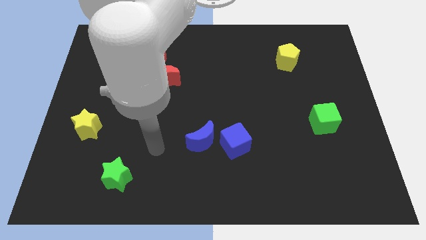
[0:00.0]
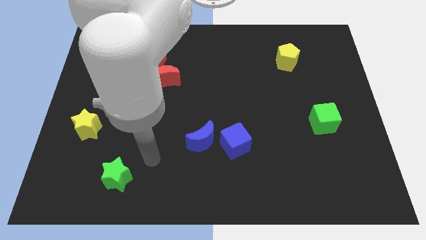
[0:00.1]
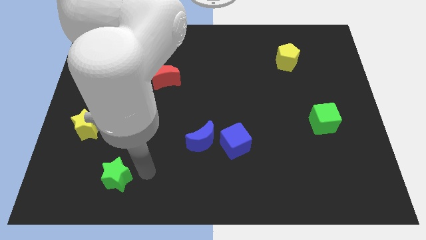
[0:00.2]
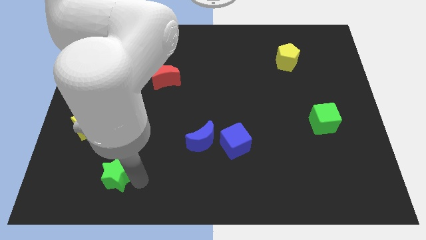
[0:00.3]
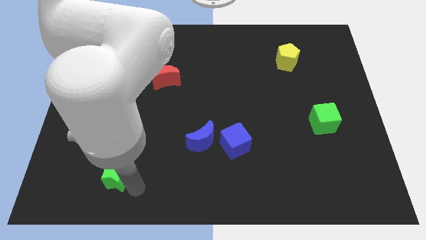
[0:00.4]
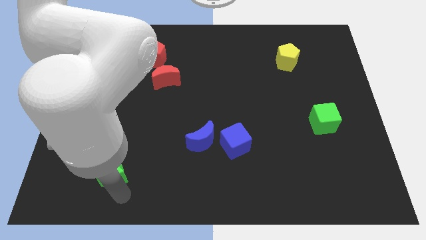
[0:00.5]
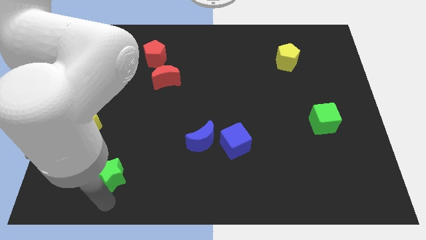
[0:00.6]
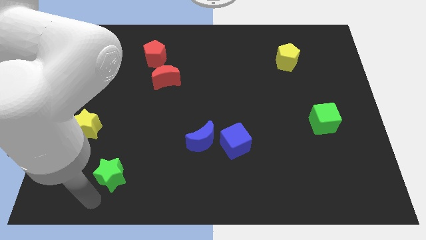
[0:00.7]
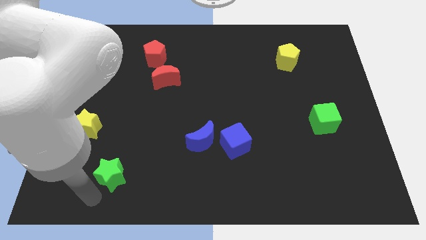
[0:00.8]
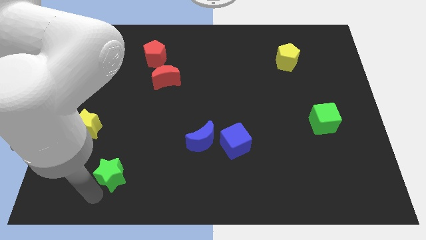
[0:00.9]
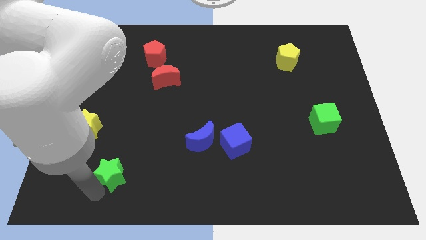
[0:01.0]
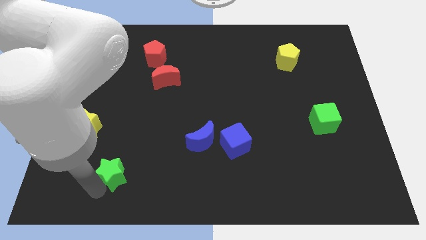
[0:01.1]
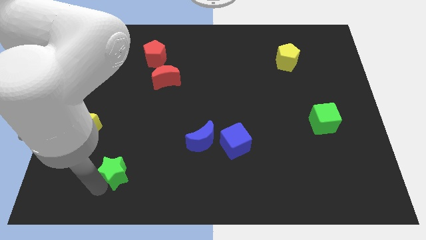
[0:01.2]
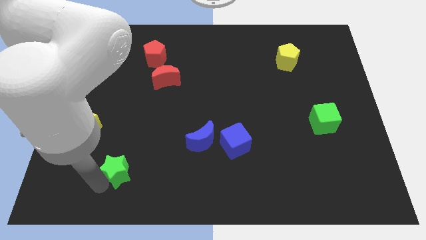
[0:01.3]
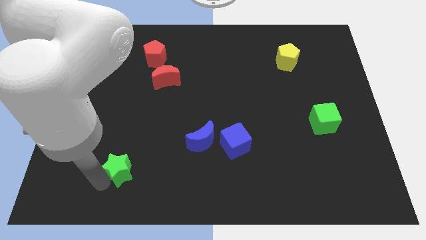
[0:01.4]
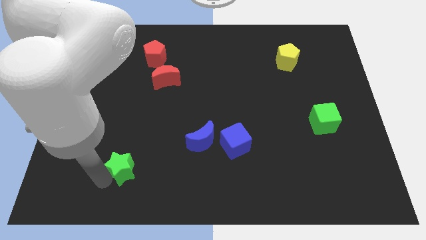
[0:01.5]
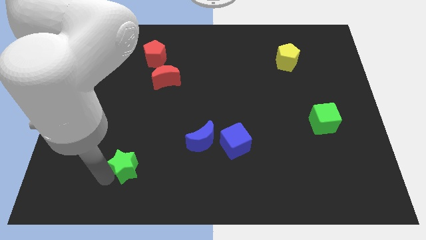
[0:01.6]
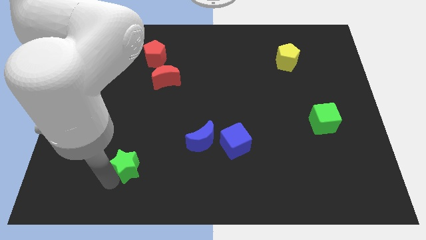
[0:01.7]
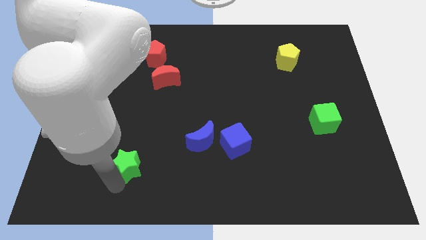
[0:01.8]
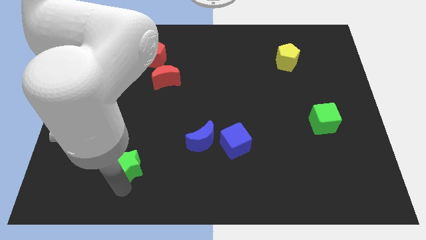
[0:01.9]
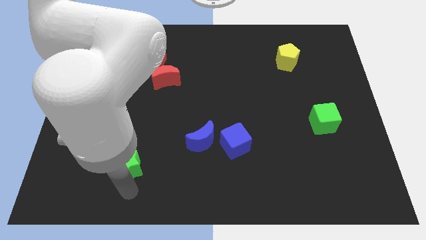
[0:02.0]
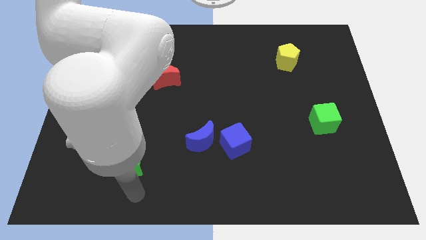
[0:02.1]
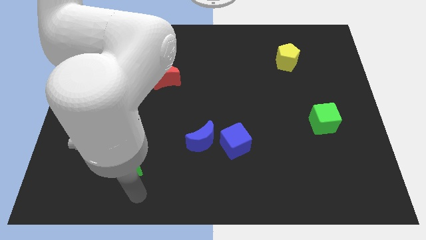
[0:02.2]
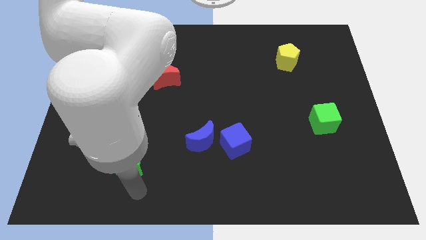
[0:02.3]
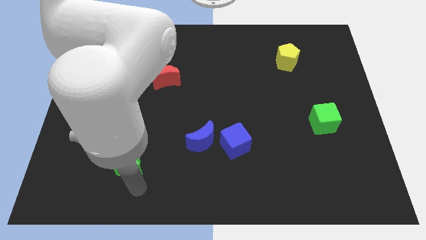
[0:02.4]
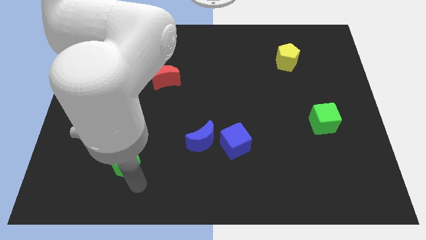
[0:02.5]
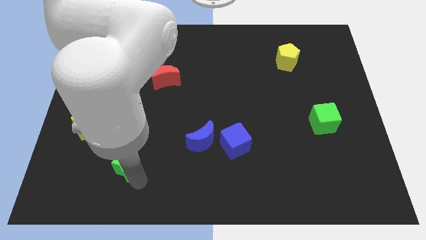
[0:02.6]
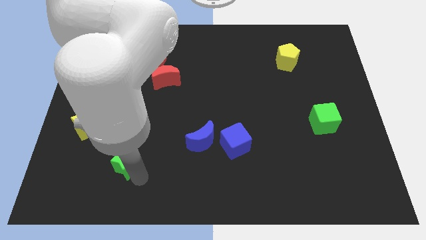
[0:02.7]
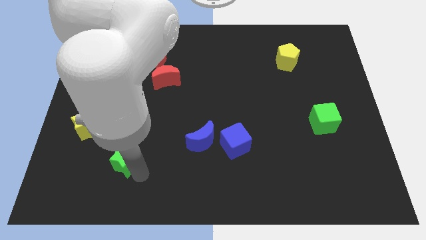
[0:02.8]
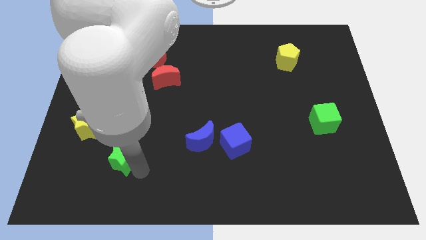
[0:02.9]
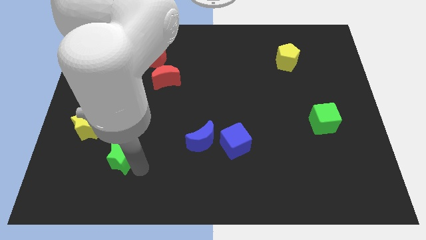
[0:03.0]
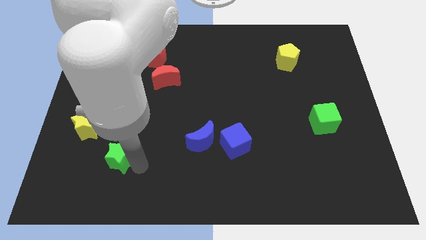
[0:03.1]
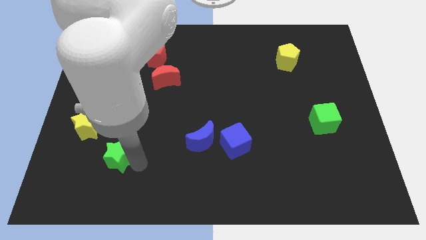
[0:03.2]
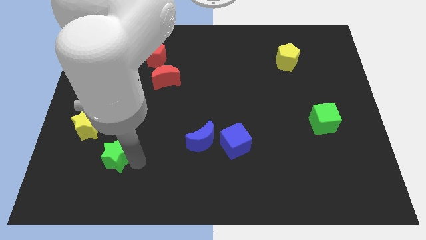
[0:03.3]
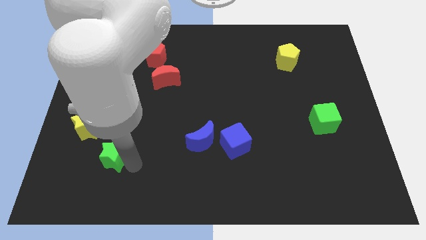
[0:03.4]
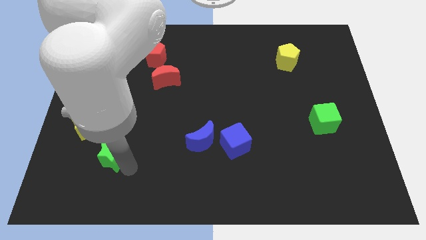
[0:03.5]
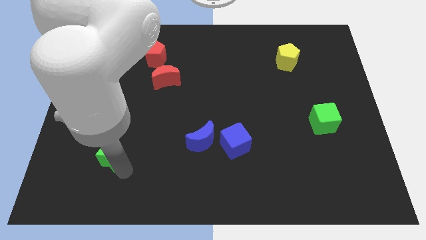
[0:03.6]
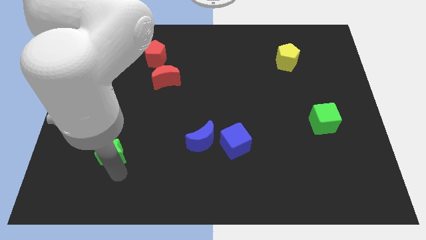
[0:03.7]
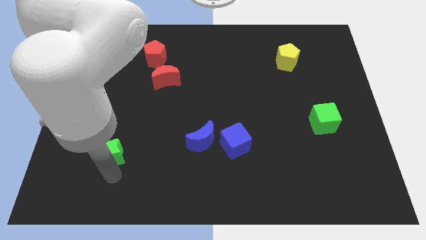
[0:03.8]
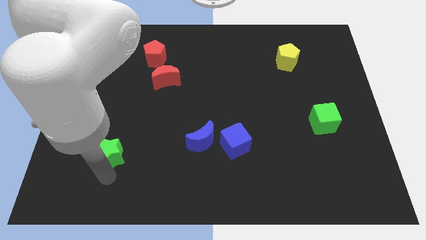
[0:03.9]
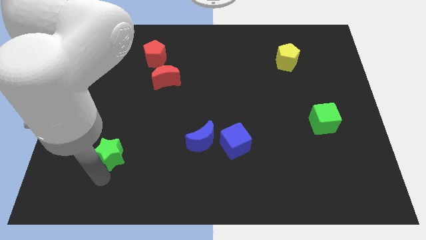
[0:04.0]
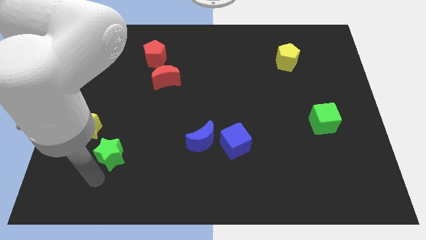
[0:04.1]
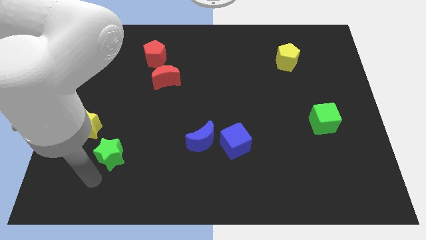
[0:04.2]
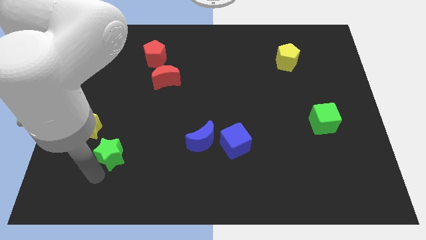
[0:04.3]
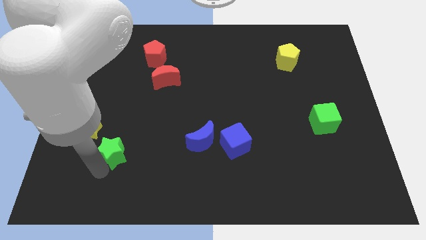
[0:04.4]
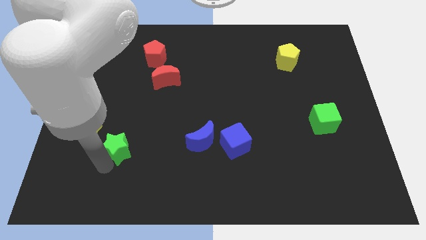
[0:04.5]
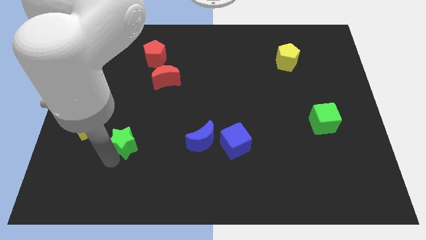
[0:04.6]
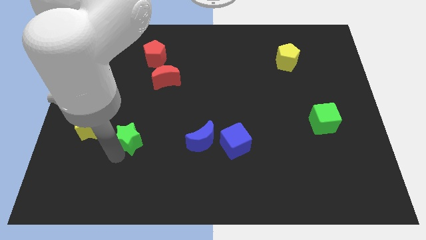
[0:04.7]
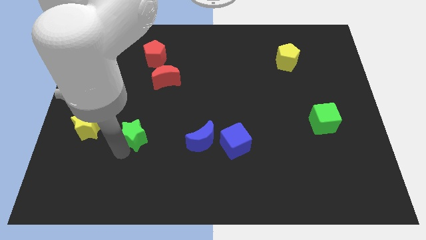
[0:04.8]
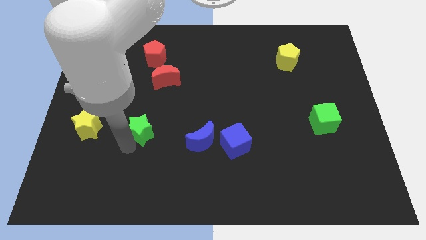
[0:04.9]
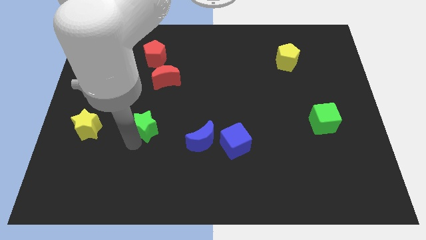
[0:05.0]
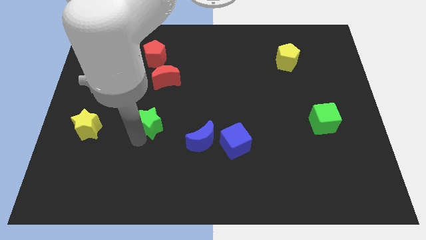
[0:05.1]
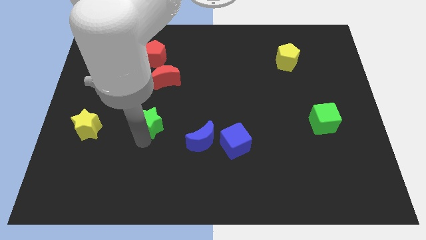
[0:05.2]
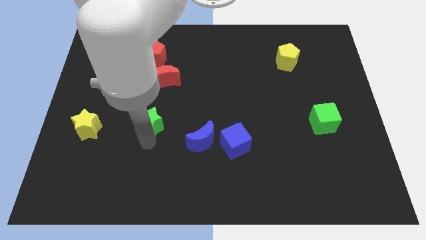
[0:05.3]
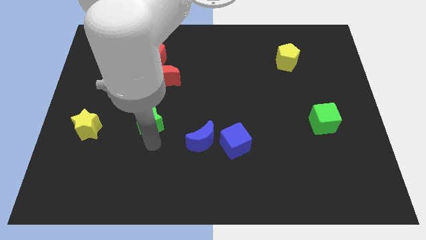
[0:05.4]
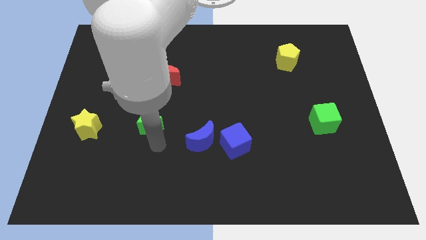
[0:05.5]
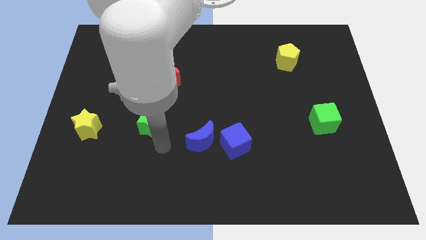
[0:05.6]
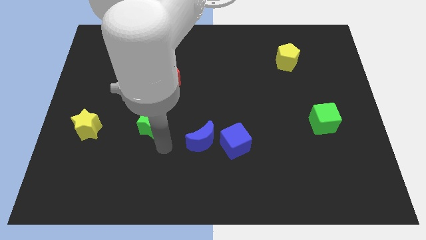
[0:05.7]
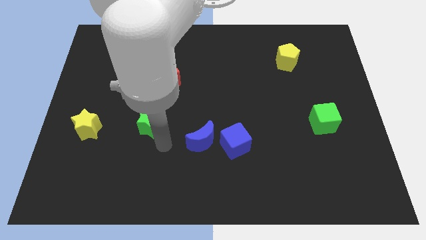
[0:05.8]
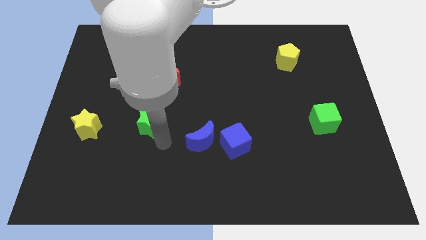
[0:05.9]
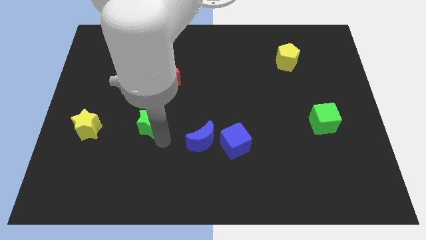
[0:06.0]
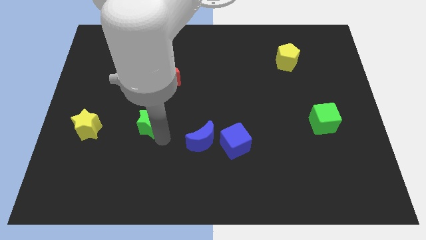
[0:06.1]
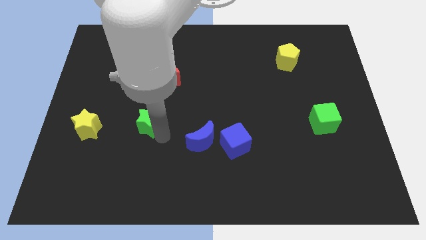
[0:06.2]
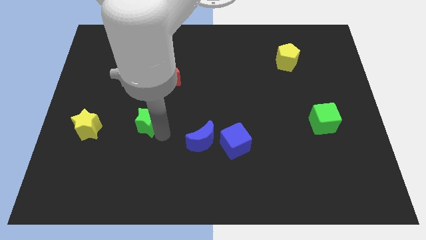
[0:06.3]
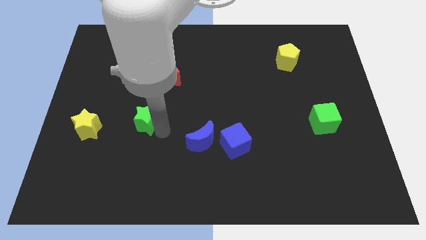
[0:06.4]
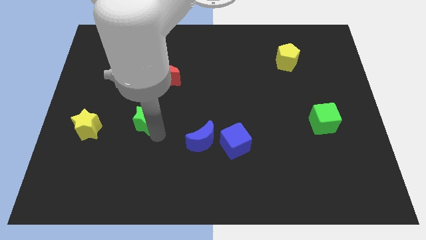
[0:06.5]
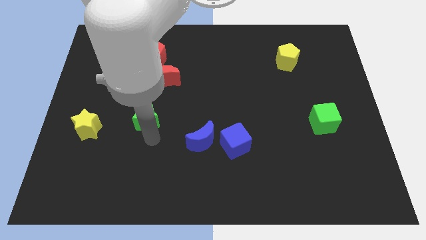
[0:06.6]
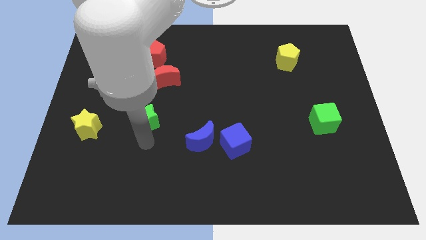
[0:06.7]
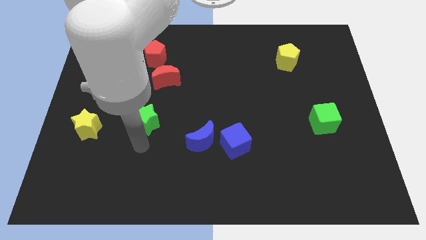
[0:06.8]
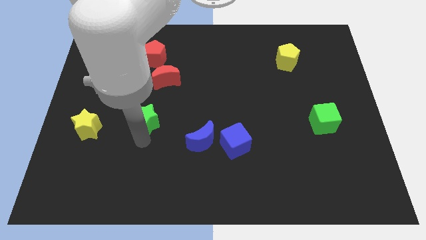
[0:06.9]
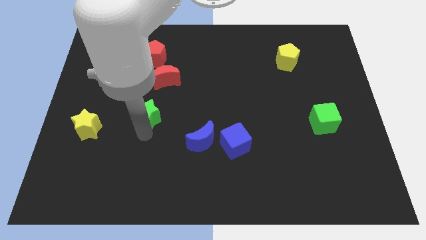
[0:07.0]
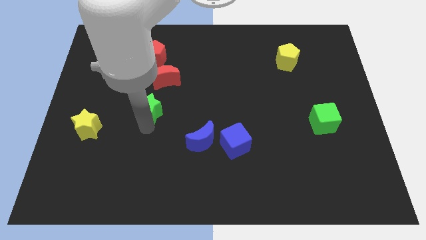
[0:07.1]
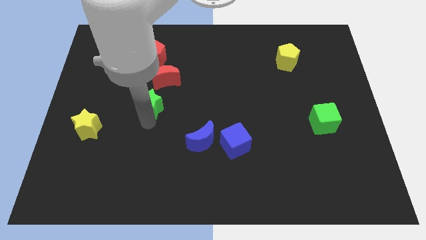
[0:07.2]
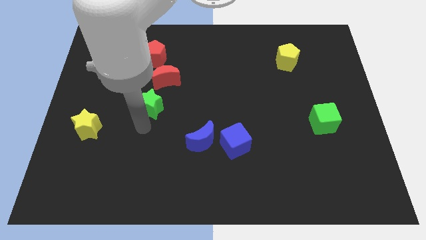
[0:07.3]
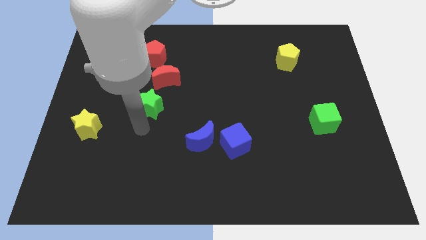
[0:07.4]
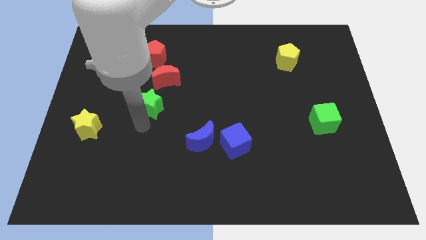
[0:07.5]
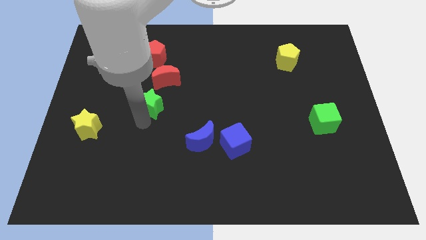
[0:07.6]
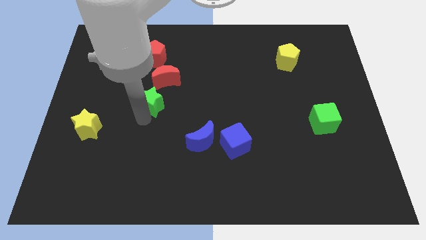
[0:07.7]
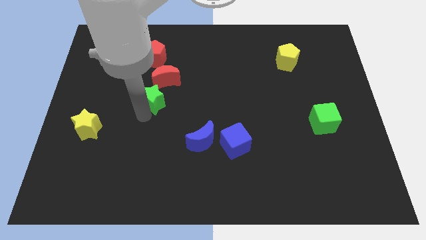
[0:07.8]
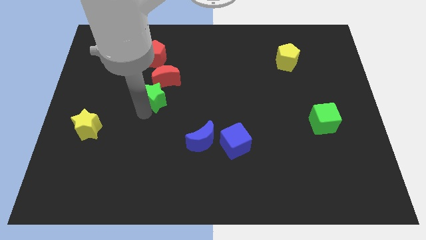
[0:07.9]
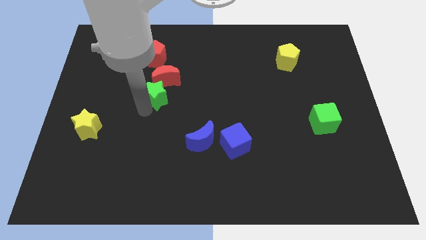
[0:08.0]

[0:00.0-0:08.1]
put the green star close to the red moon

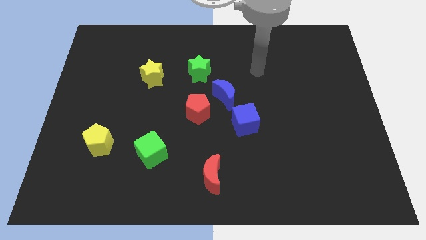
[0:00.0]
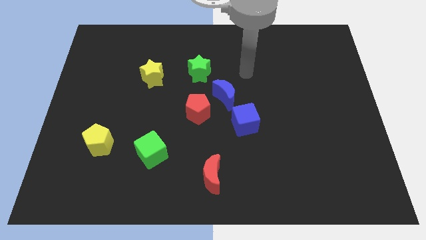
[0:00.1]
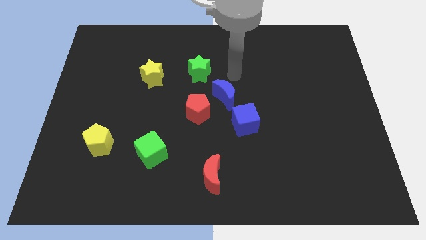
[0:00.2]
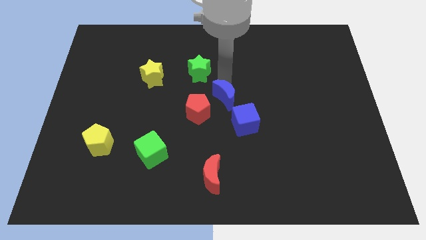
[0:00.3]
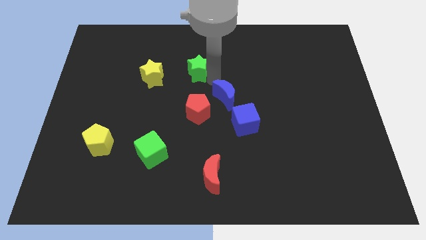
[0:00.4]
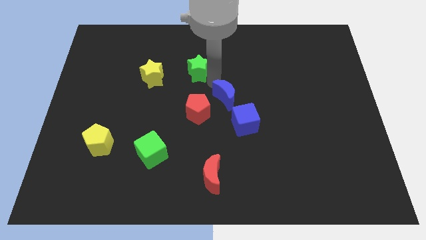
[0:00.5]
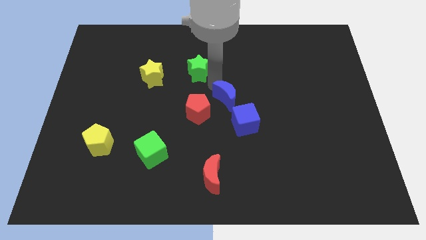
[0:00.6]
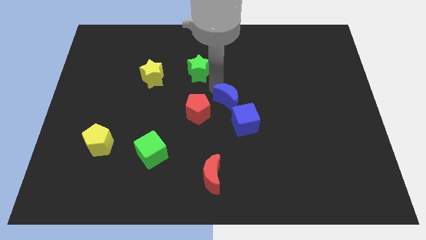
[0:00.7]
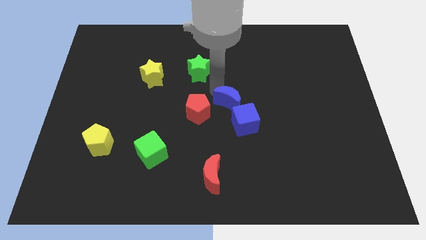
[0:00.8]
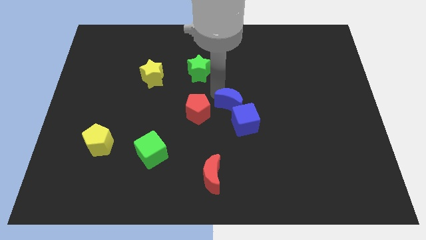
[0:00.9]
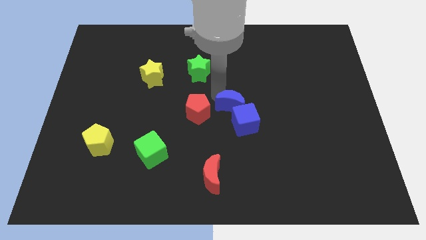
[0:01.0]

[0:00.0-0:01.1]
move the blue moon towards the blue cube
